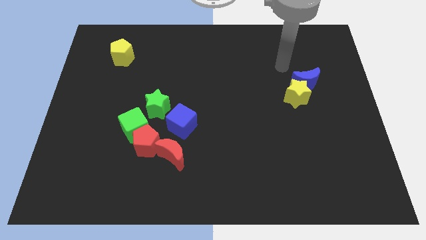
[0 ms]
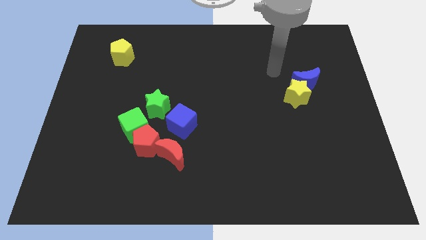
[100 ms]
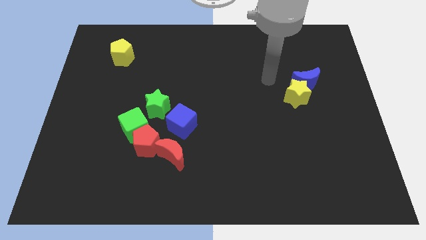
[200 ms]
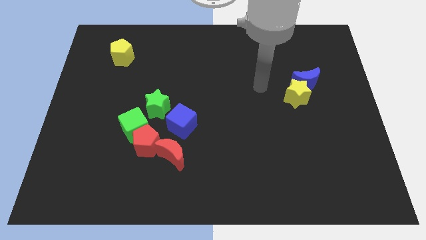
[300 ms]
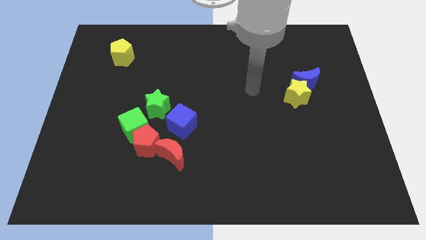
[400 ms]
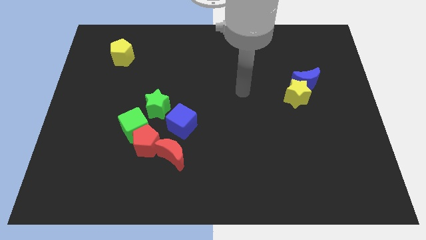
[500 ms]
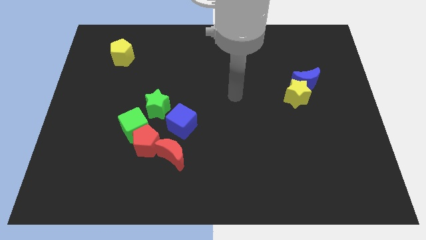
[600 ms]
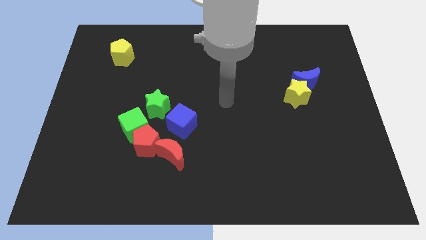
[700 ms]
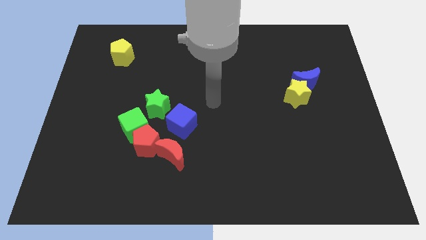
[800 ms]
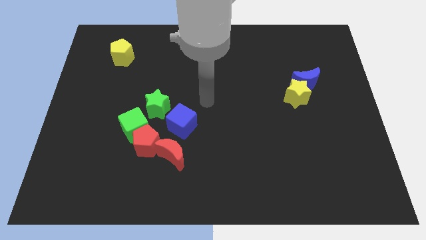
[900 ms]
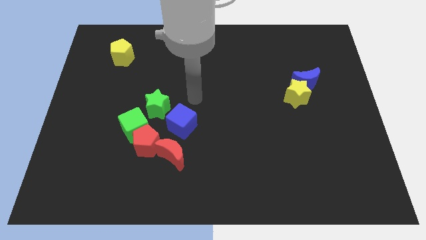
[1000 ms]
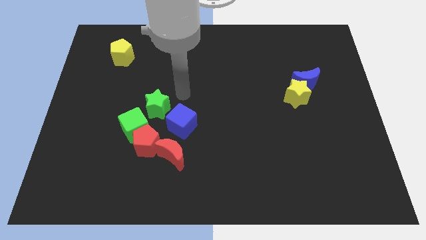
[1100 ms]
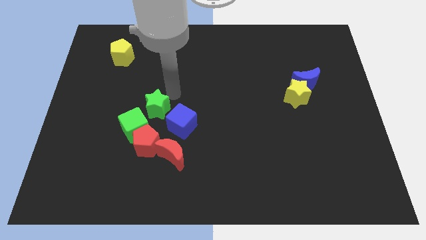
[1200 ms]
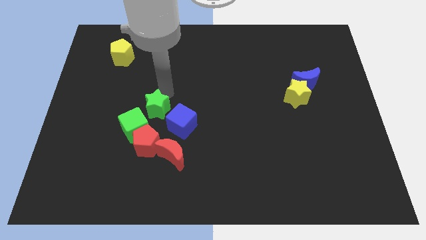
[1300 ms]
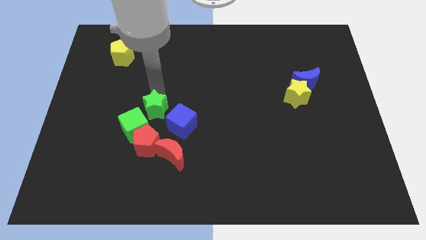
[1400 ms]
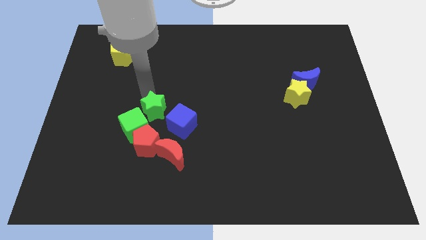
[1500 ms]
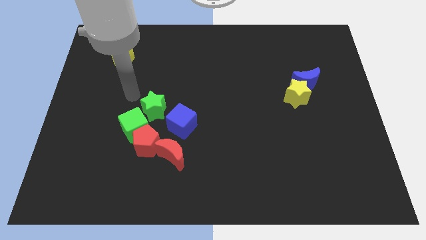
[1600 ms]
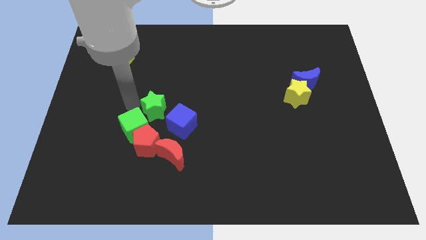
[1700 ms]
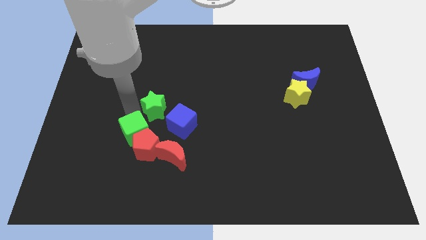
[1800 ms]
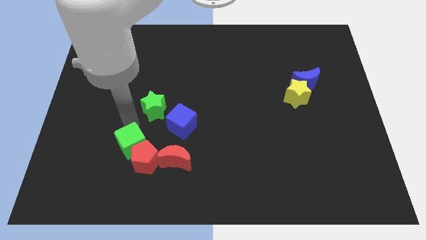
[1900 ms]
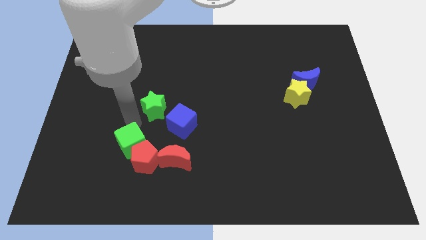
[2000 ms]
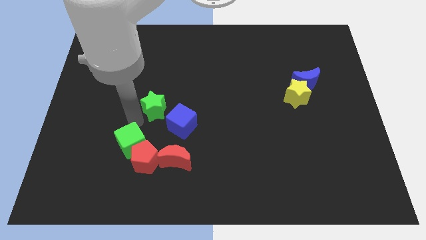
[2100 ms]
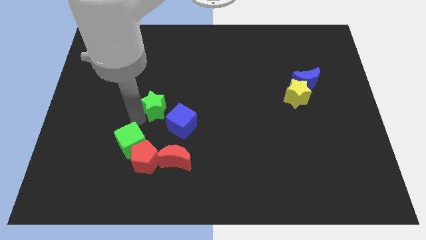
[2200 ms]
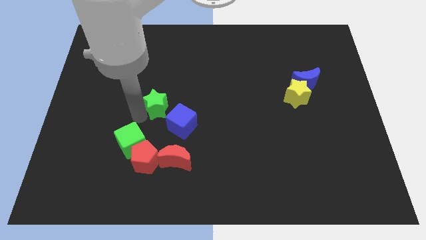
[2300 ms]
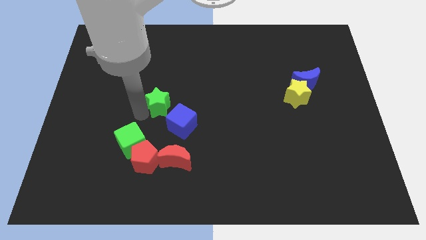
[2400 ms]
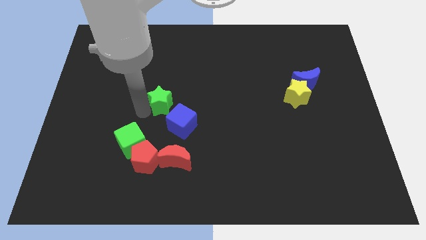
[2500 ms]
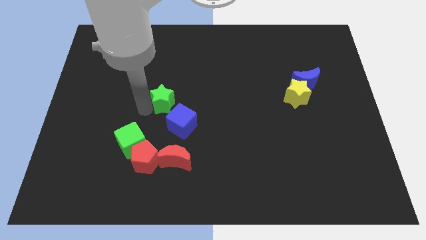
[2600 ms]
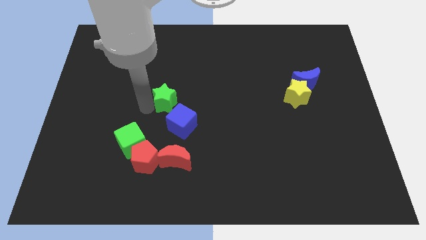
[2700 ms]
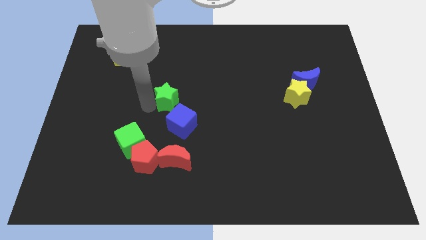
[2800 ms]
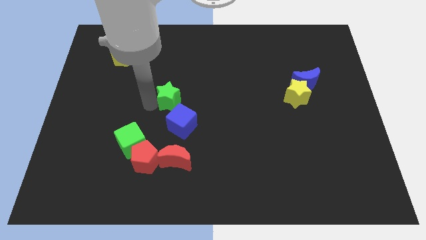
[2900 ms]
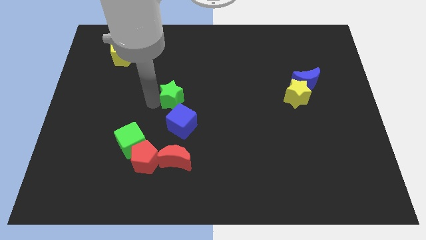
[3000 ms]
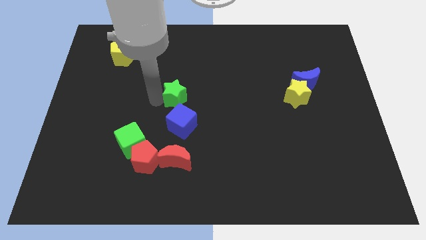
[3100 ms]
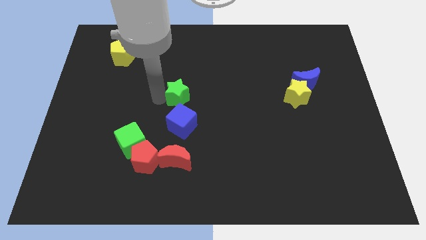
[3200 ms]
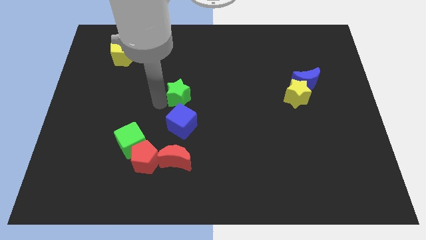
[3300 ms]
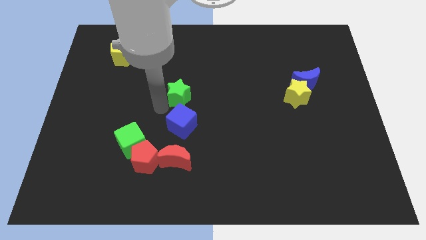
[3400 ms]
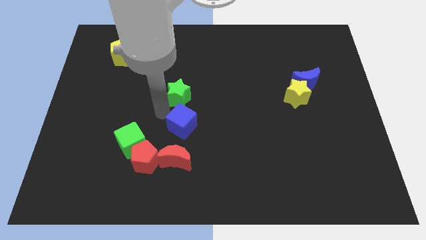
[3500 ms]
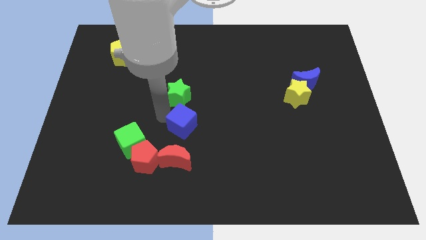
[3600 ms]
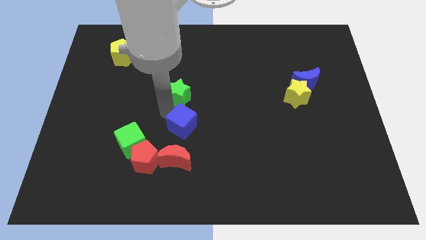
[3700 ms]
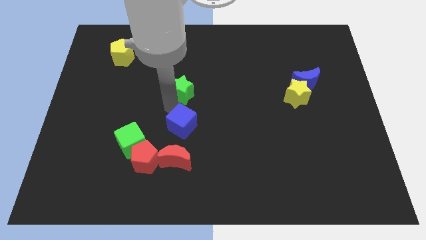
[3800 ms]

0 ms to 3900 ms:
slightly move the green star diagonally upwards and to the right

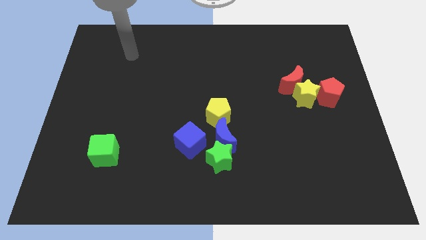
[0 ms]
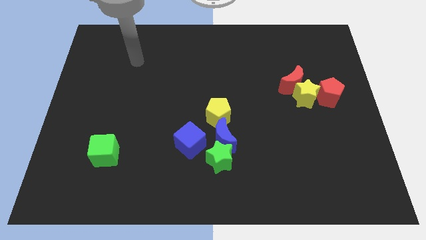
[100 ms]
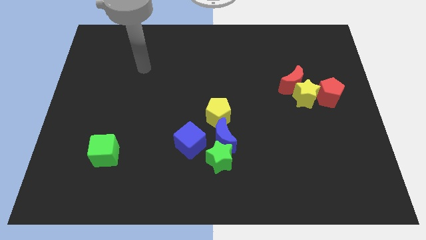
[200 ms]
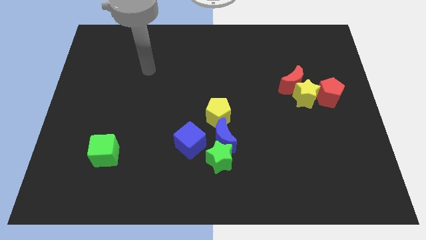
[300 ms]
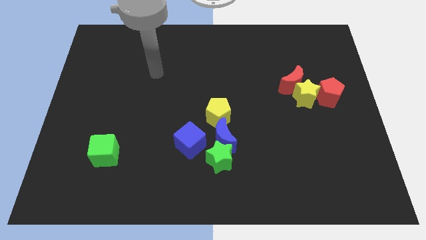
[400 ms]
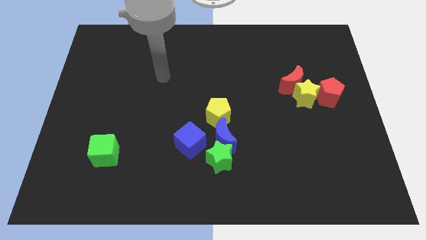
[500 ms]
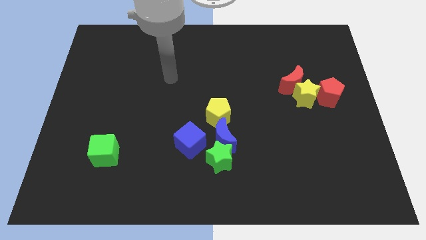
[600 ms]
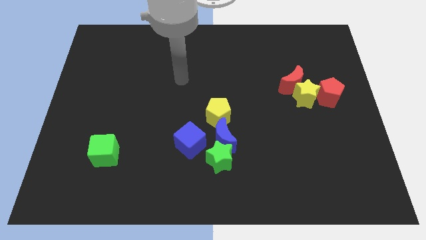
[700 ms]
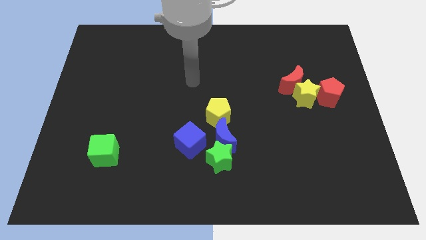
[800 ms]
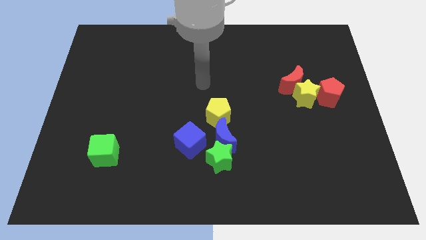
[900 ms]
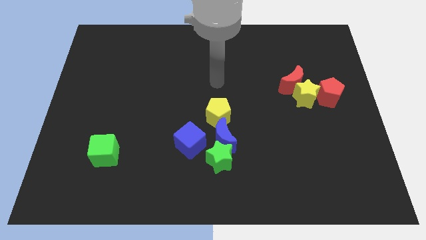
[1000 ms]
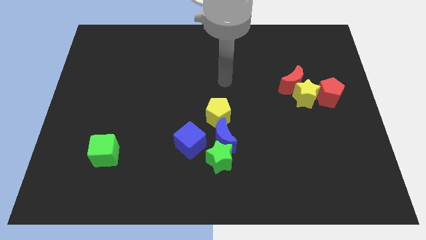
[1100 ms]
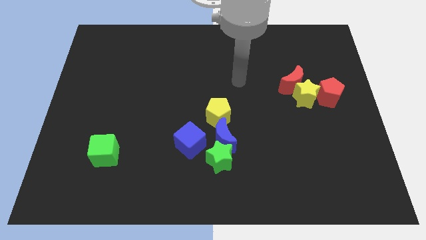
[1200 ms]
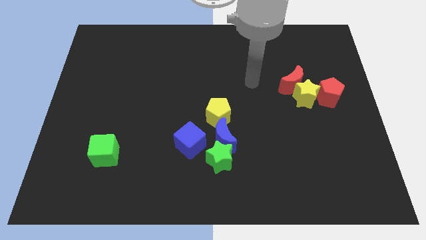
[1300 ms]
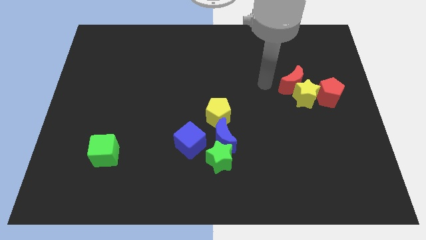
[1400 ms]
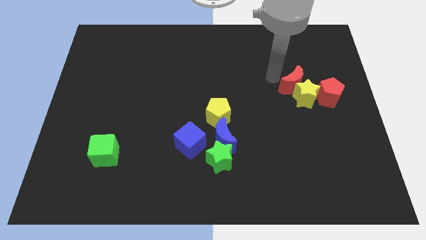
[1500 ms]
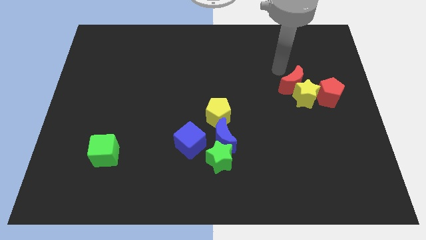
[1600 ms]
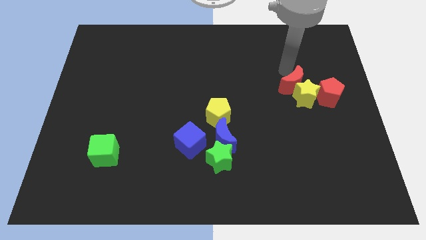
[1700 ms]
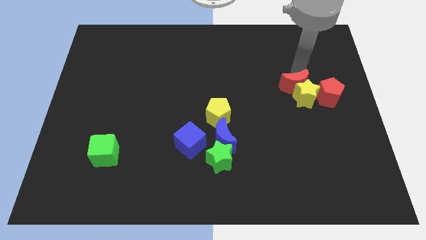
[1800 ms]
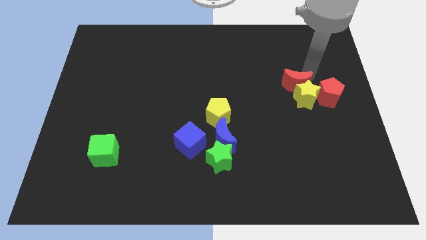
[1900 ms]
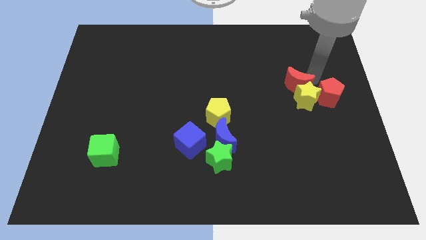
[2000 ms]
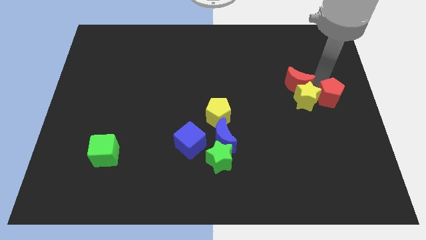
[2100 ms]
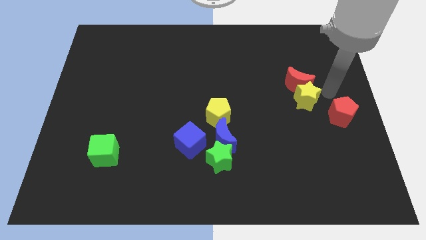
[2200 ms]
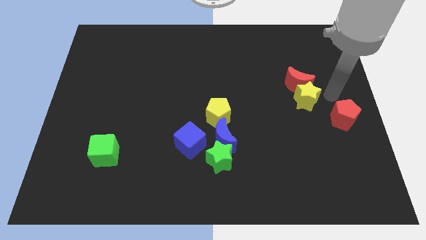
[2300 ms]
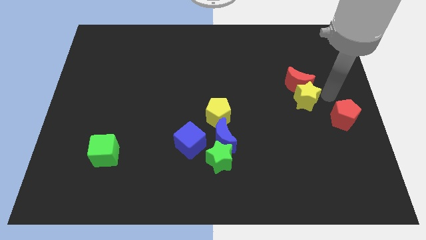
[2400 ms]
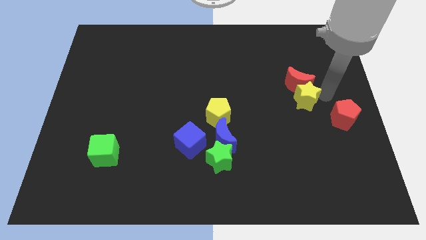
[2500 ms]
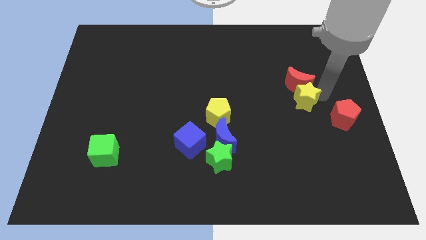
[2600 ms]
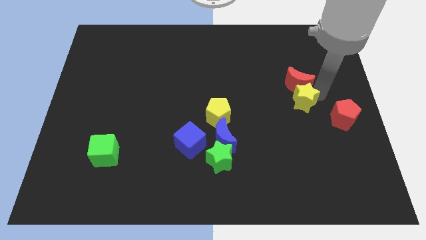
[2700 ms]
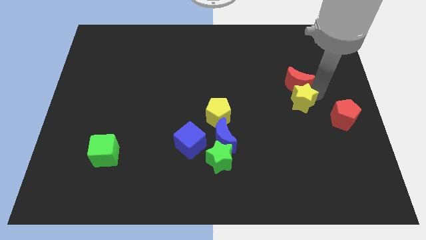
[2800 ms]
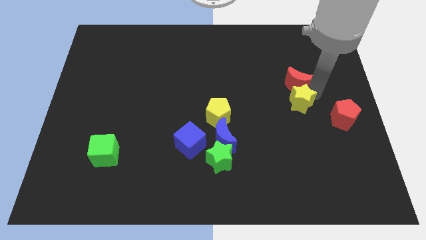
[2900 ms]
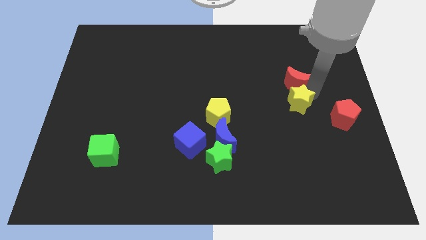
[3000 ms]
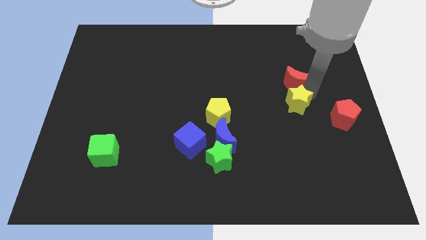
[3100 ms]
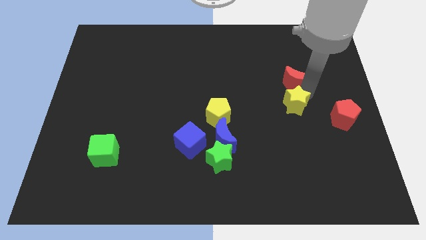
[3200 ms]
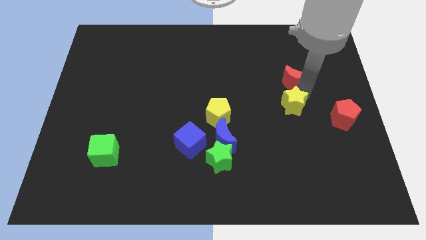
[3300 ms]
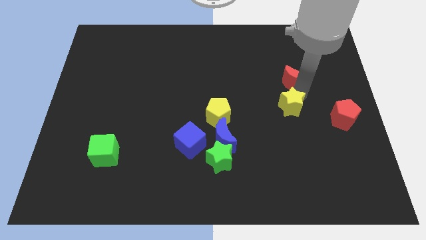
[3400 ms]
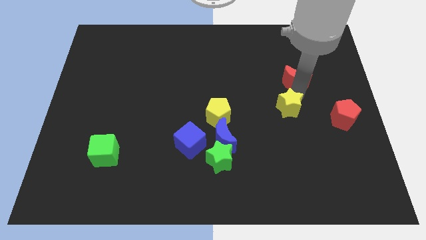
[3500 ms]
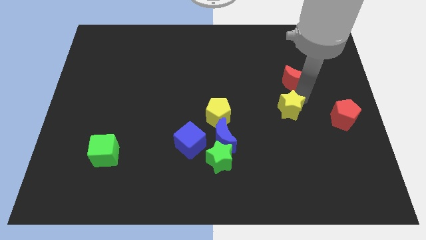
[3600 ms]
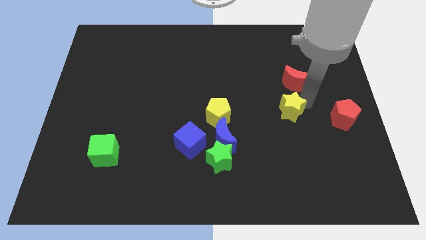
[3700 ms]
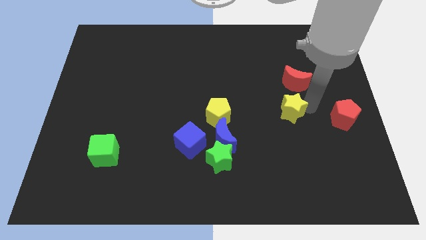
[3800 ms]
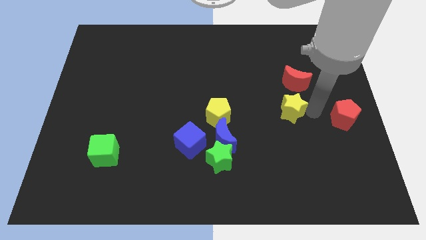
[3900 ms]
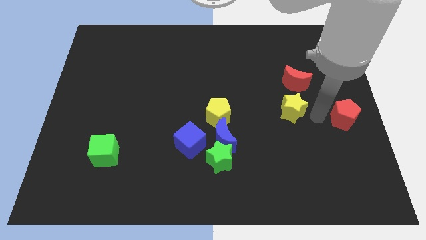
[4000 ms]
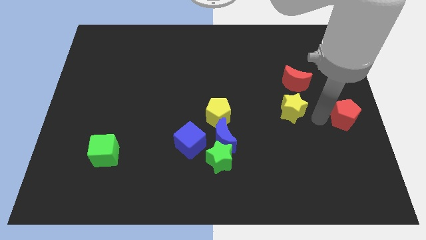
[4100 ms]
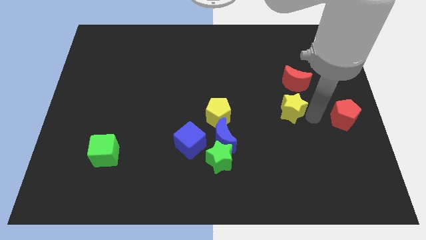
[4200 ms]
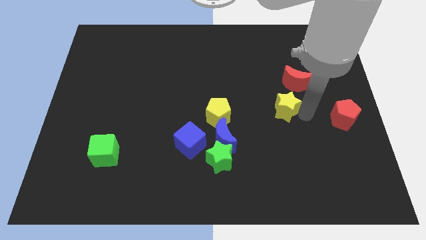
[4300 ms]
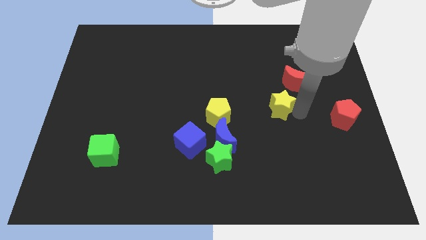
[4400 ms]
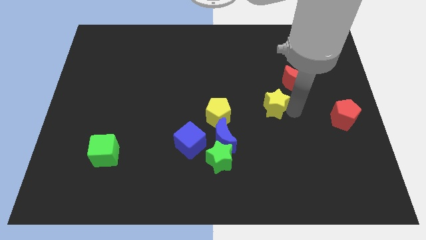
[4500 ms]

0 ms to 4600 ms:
push the yellow star left somewhat
